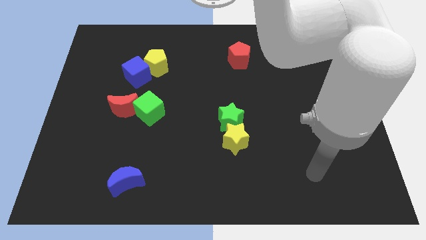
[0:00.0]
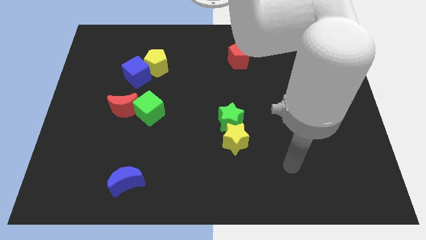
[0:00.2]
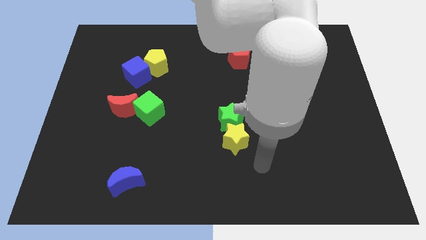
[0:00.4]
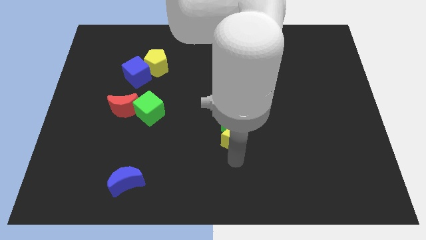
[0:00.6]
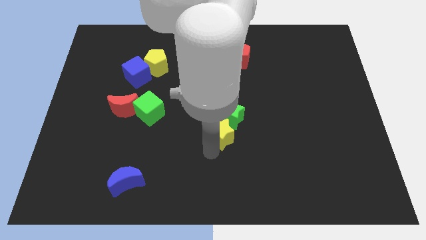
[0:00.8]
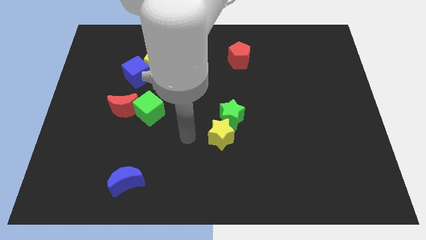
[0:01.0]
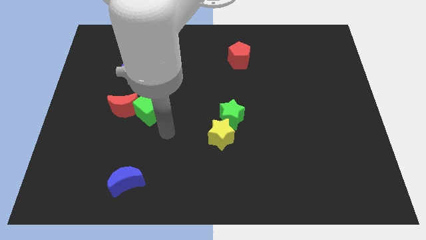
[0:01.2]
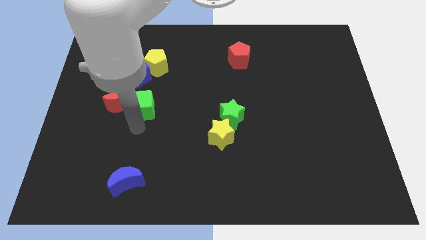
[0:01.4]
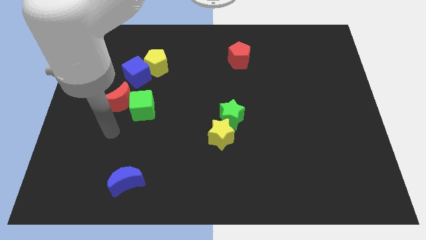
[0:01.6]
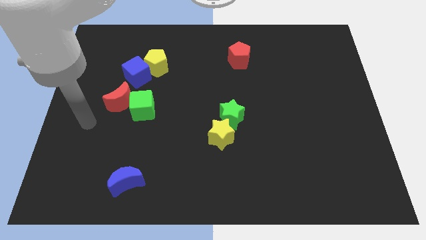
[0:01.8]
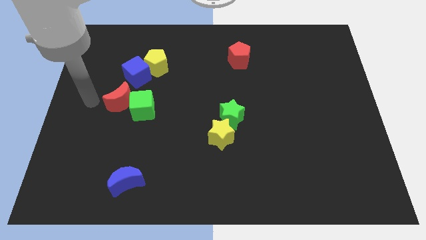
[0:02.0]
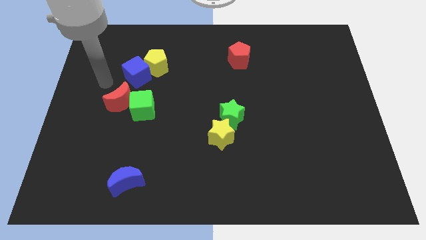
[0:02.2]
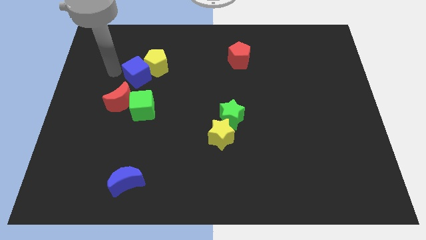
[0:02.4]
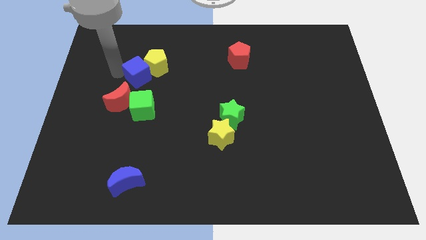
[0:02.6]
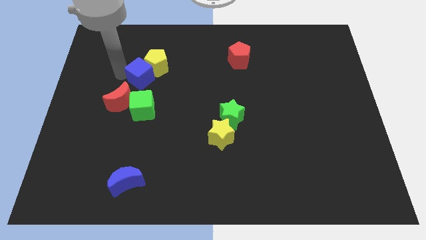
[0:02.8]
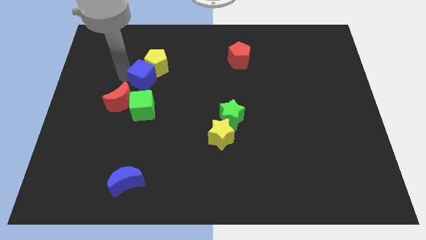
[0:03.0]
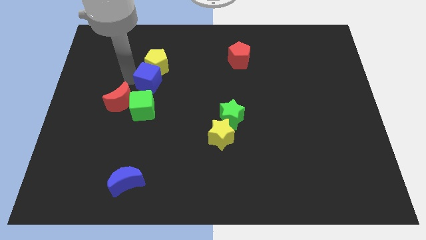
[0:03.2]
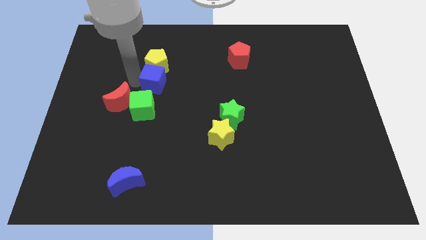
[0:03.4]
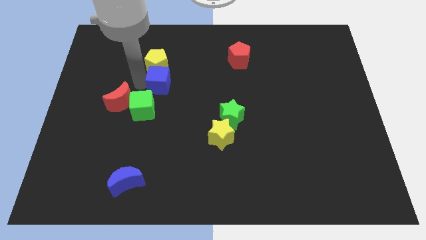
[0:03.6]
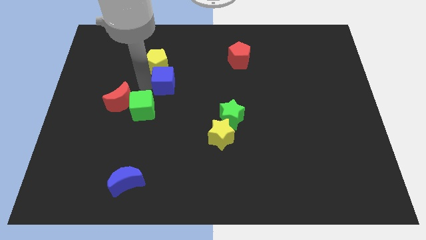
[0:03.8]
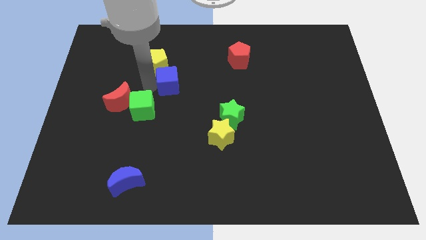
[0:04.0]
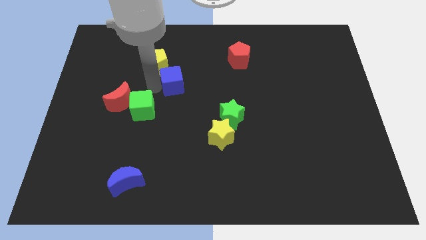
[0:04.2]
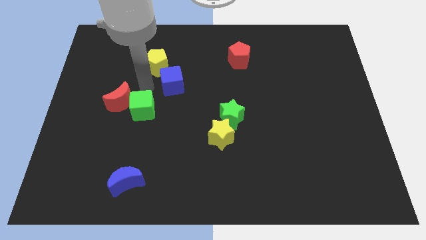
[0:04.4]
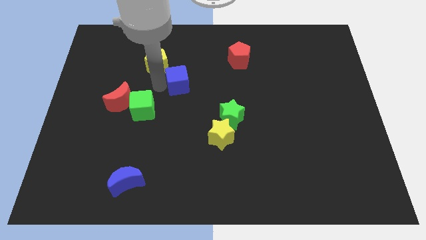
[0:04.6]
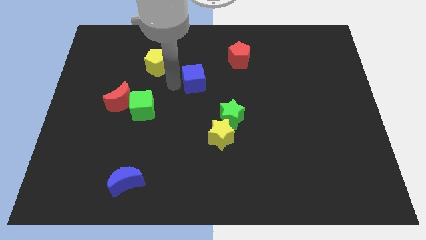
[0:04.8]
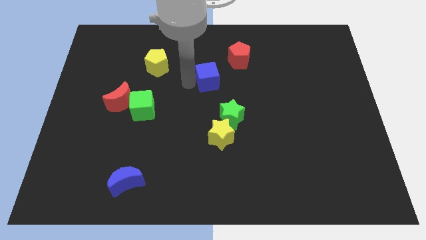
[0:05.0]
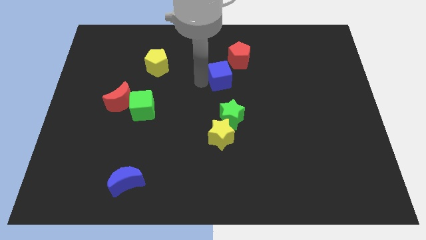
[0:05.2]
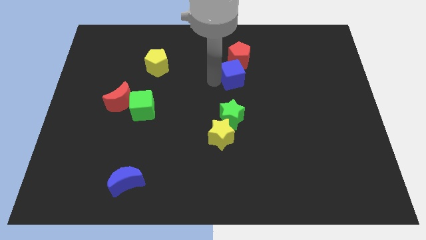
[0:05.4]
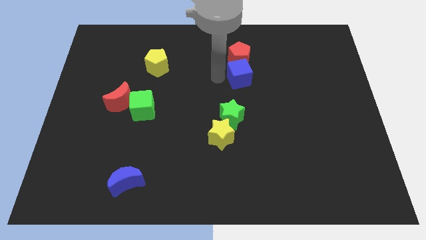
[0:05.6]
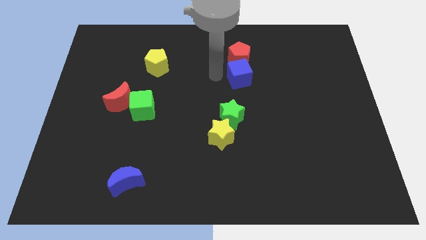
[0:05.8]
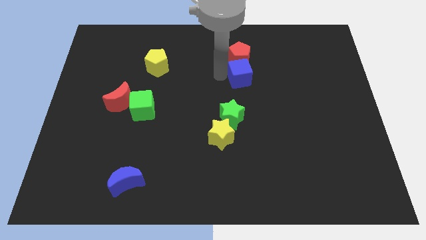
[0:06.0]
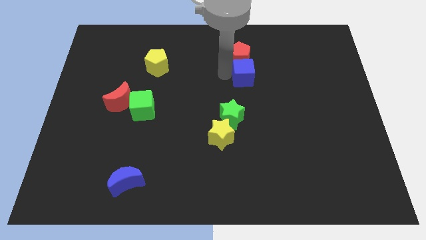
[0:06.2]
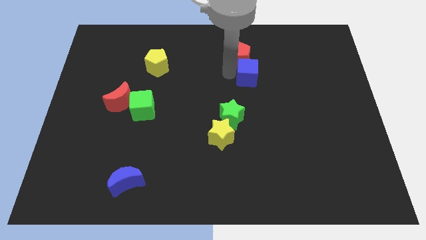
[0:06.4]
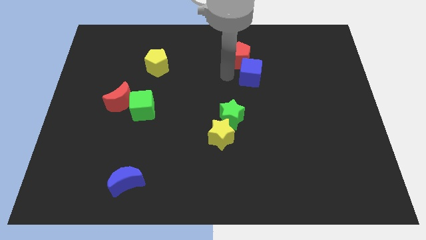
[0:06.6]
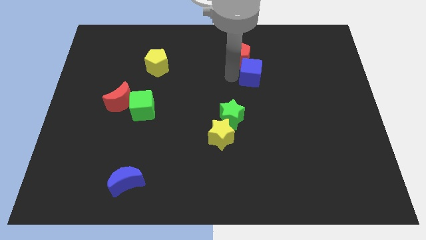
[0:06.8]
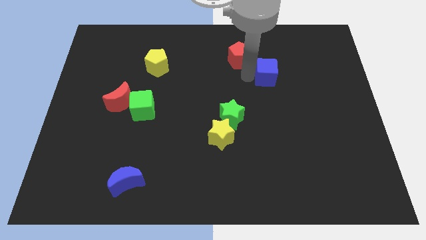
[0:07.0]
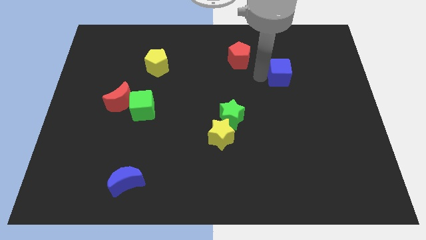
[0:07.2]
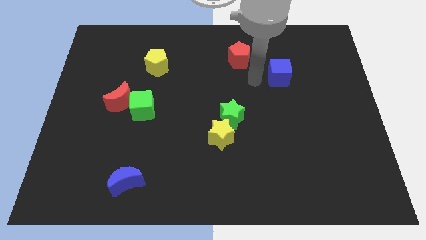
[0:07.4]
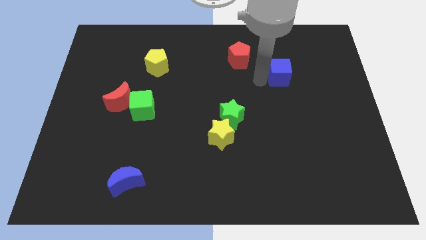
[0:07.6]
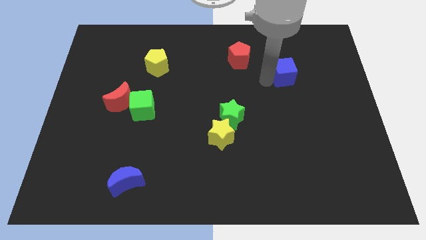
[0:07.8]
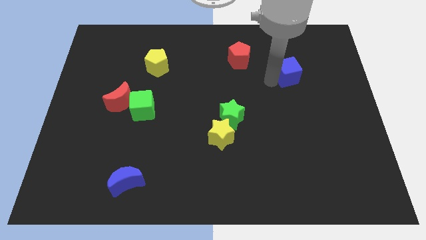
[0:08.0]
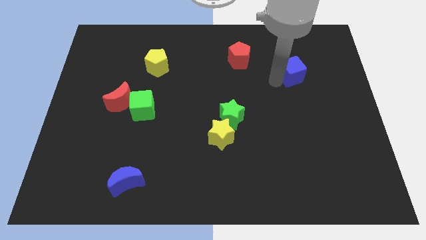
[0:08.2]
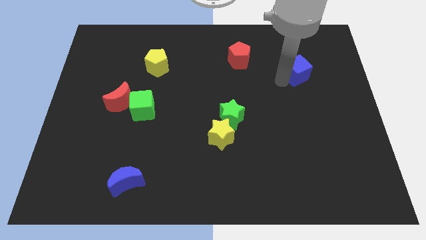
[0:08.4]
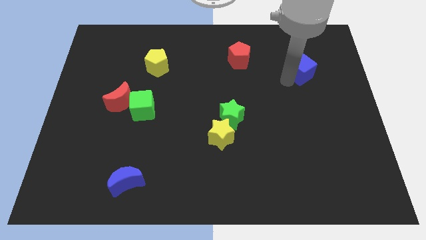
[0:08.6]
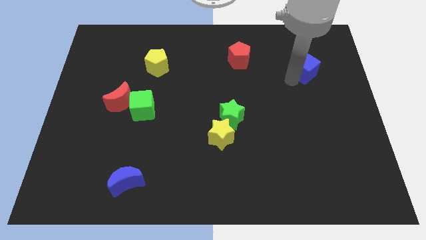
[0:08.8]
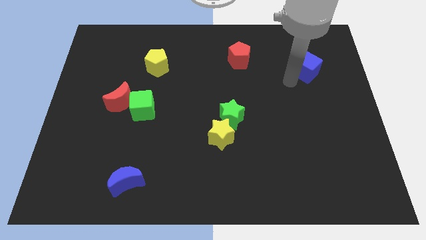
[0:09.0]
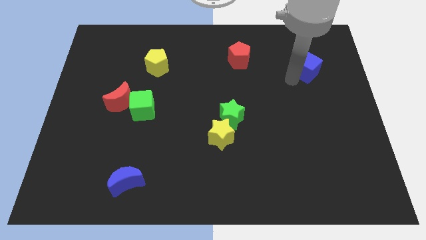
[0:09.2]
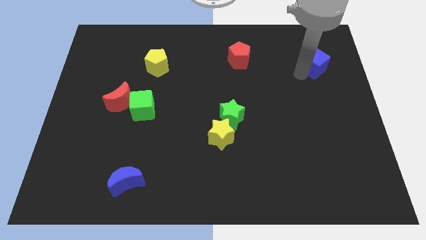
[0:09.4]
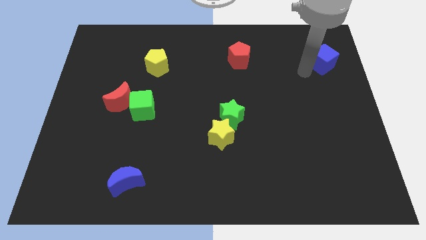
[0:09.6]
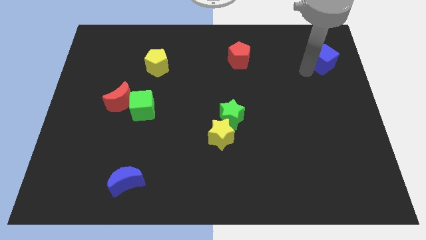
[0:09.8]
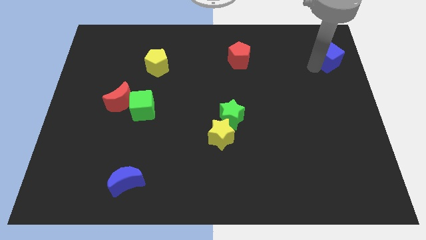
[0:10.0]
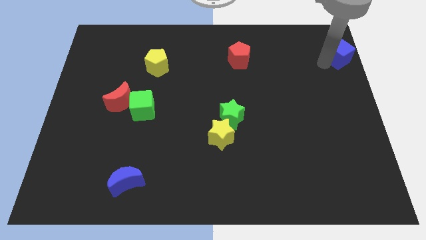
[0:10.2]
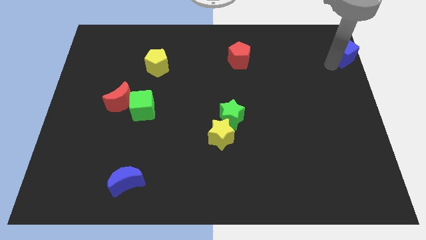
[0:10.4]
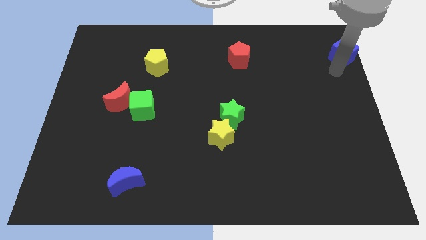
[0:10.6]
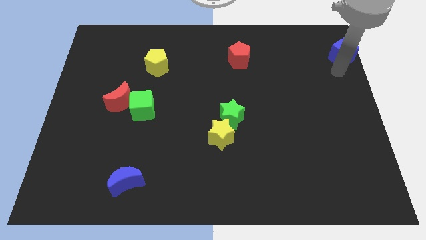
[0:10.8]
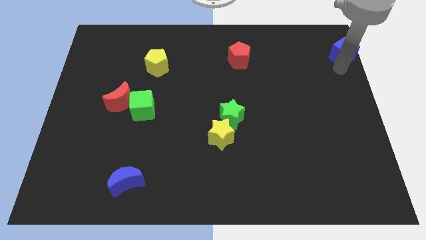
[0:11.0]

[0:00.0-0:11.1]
push the blue cube to the top right

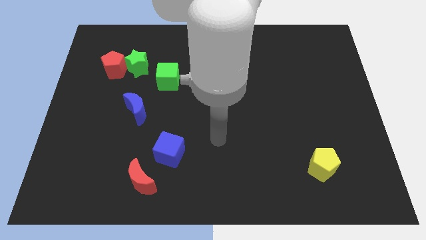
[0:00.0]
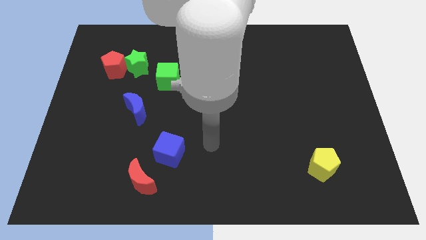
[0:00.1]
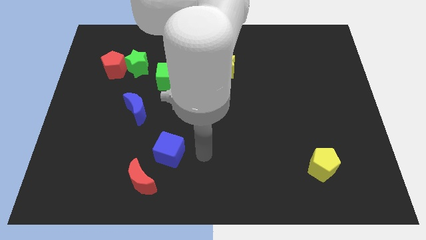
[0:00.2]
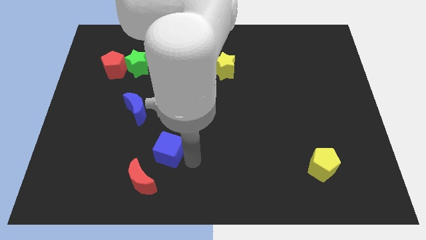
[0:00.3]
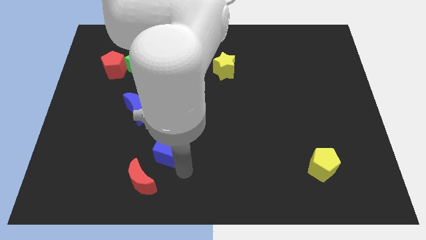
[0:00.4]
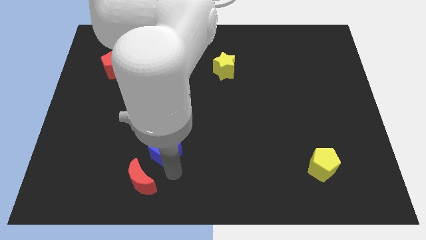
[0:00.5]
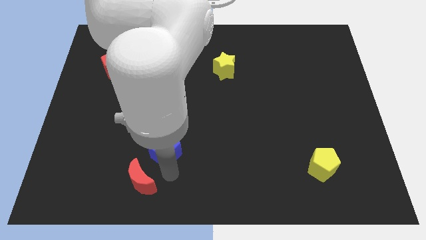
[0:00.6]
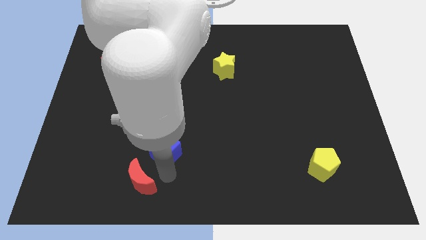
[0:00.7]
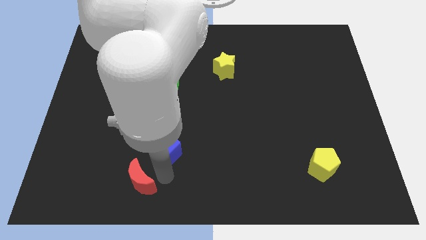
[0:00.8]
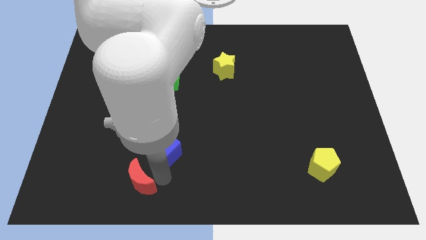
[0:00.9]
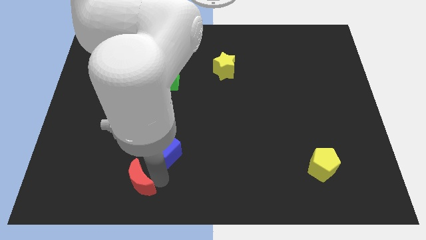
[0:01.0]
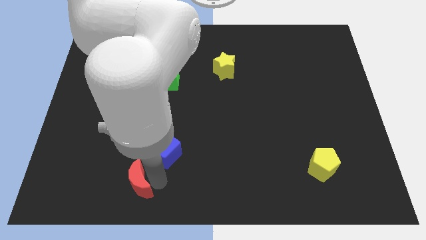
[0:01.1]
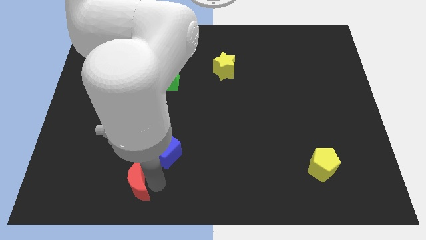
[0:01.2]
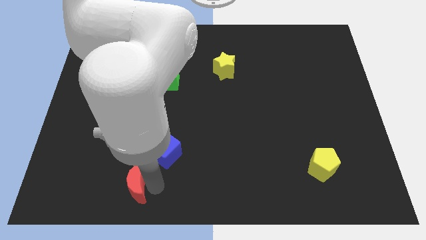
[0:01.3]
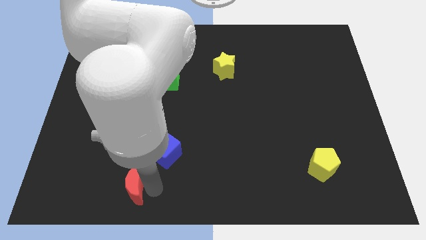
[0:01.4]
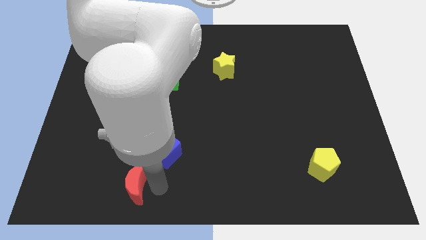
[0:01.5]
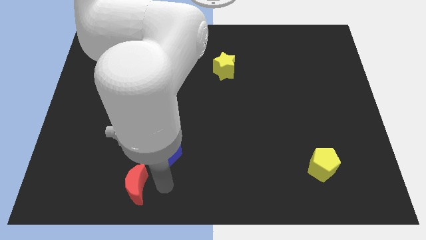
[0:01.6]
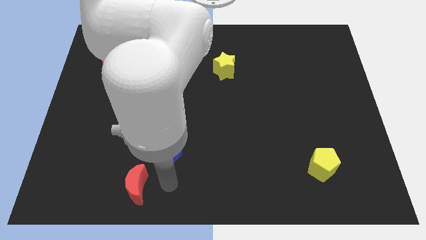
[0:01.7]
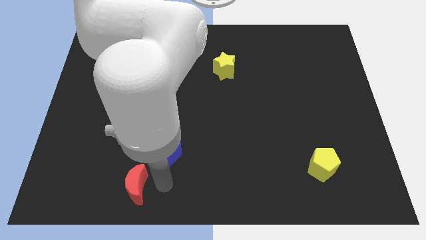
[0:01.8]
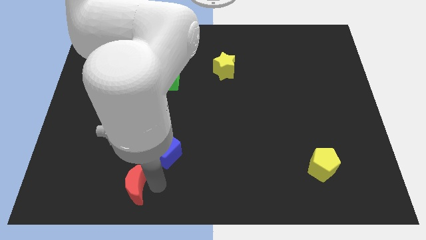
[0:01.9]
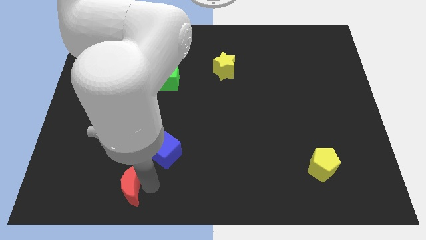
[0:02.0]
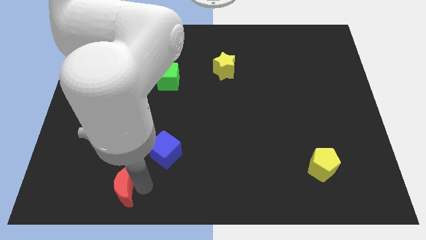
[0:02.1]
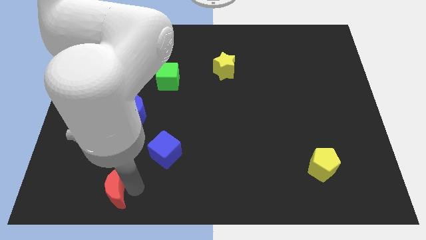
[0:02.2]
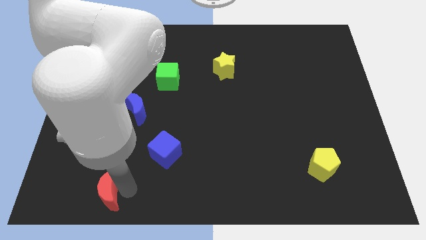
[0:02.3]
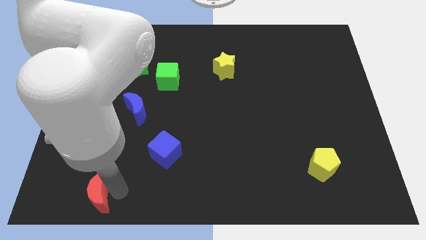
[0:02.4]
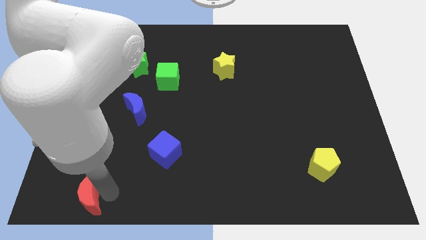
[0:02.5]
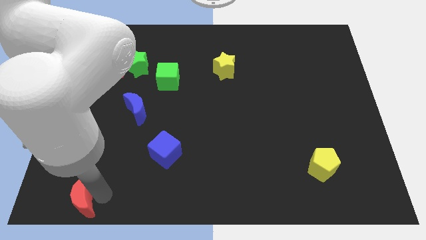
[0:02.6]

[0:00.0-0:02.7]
move the red moon to the bottom left corner
